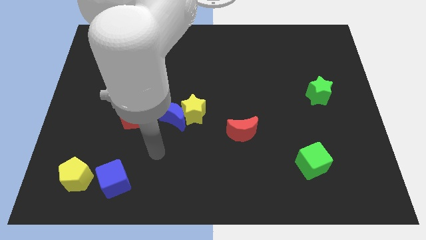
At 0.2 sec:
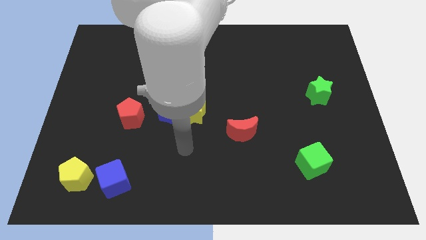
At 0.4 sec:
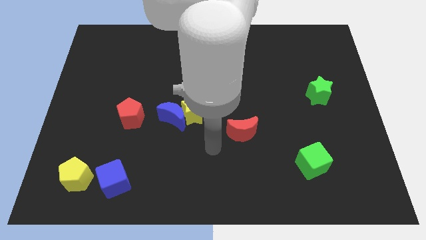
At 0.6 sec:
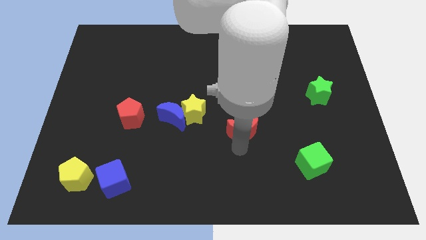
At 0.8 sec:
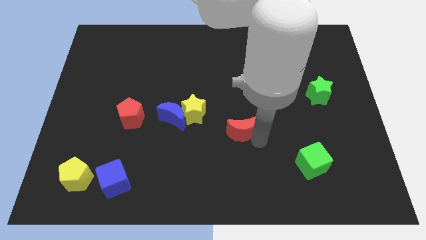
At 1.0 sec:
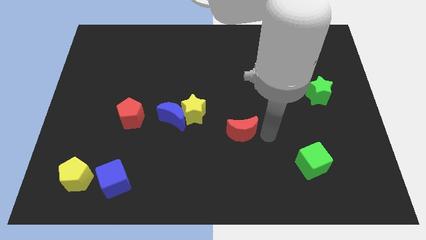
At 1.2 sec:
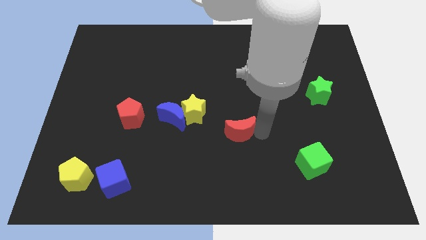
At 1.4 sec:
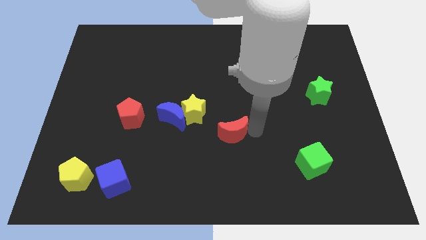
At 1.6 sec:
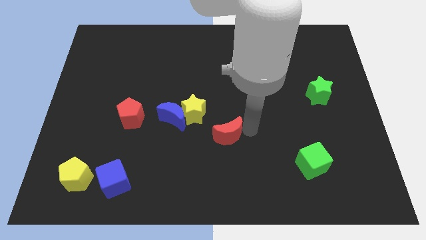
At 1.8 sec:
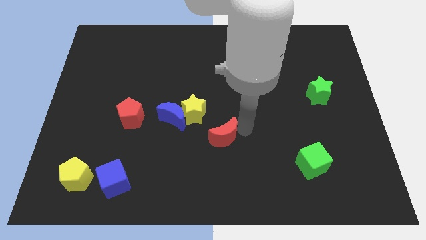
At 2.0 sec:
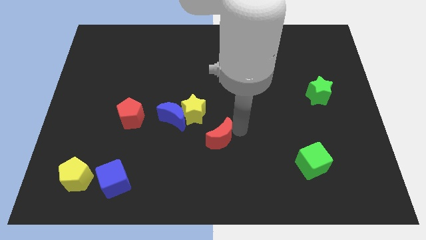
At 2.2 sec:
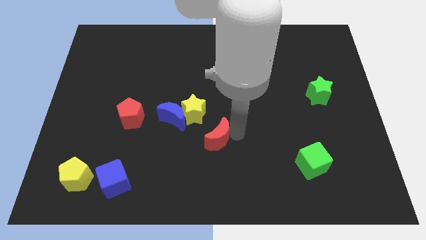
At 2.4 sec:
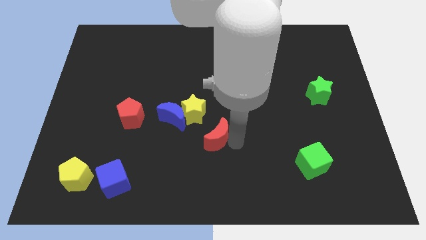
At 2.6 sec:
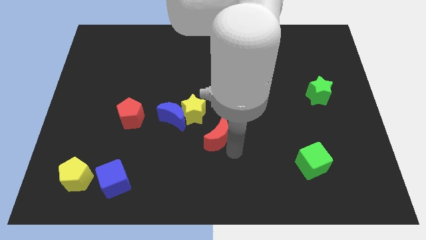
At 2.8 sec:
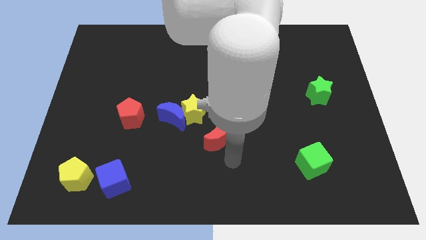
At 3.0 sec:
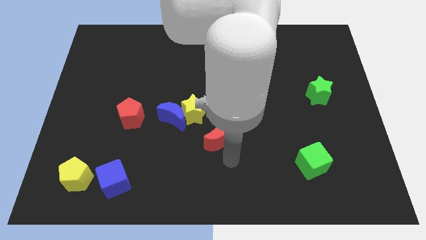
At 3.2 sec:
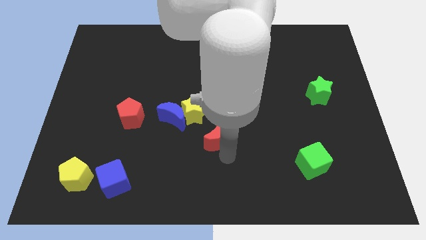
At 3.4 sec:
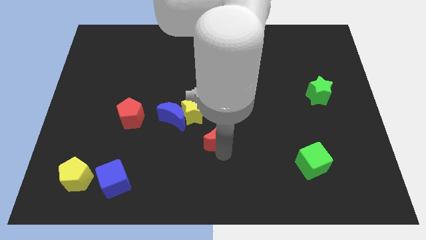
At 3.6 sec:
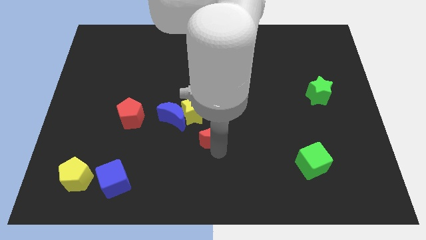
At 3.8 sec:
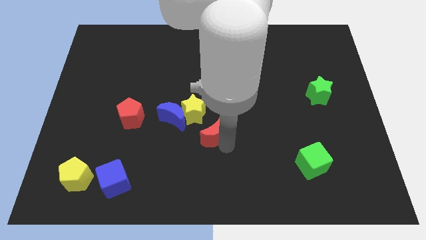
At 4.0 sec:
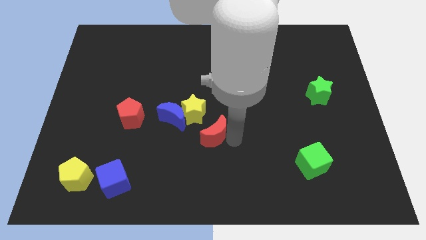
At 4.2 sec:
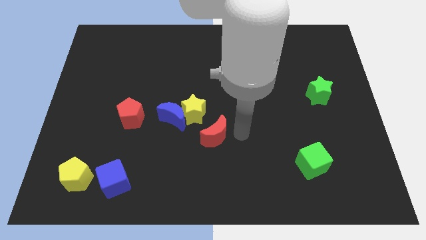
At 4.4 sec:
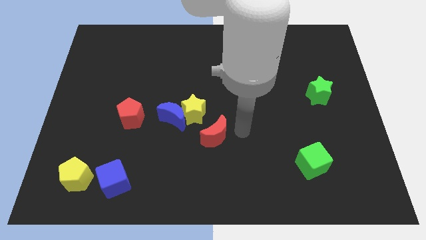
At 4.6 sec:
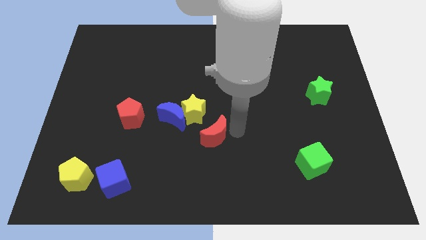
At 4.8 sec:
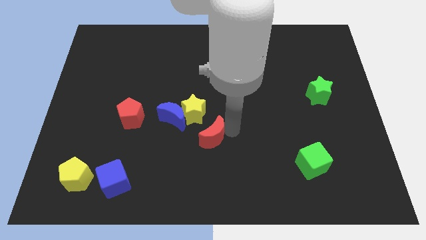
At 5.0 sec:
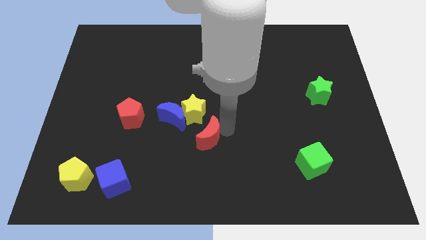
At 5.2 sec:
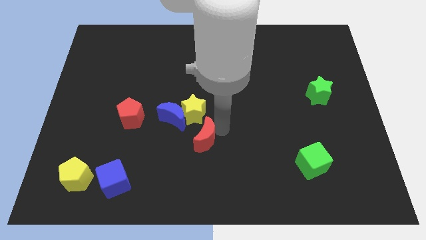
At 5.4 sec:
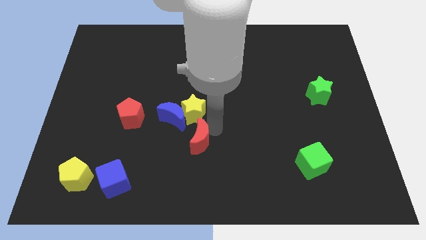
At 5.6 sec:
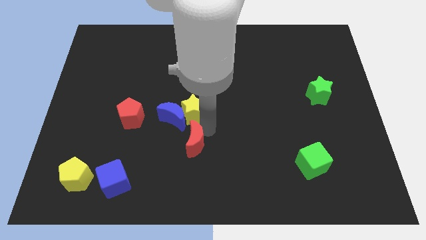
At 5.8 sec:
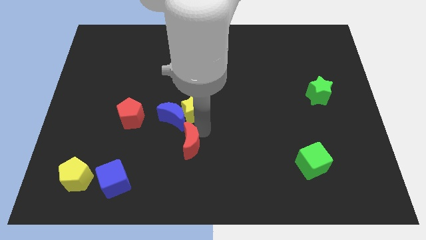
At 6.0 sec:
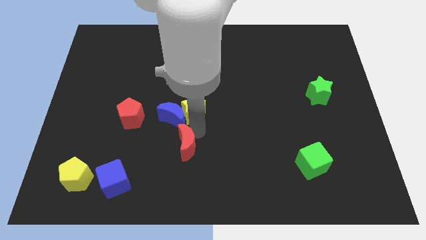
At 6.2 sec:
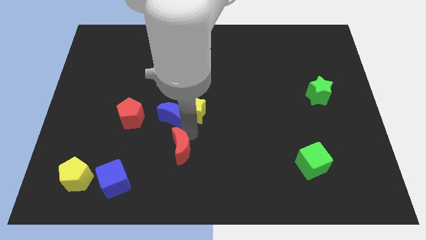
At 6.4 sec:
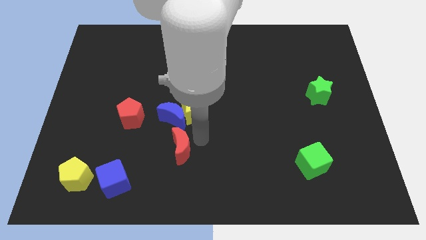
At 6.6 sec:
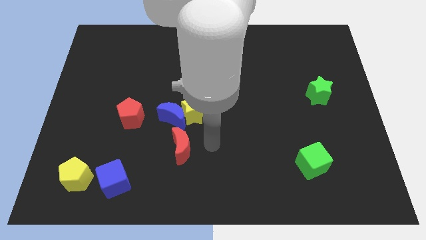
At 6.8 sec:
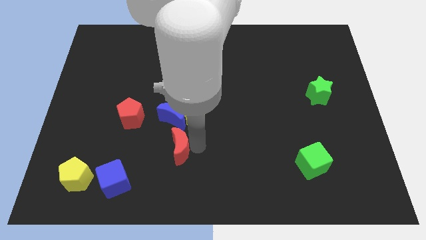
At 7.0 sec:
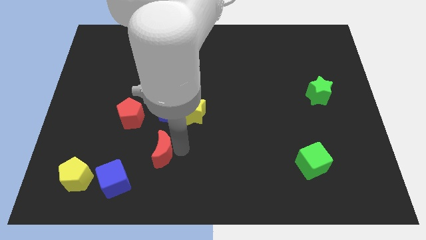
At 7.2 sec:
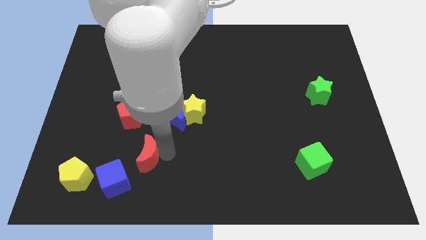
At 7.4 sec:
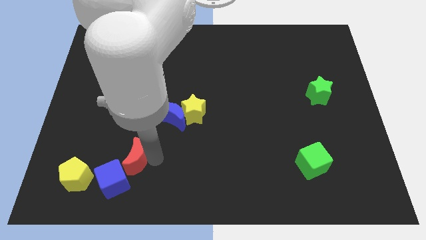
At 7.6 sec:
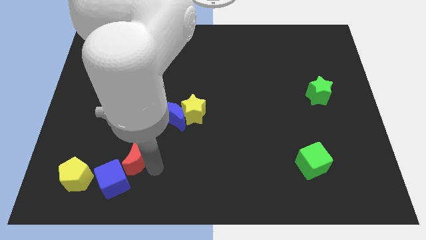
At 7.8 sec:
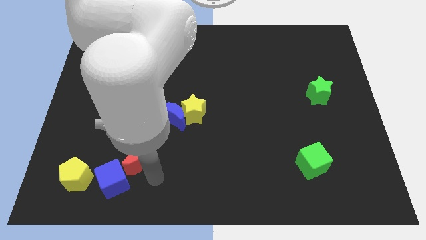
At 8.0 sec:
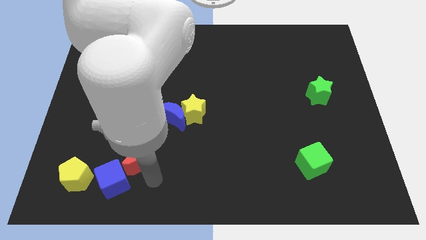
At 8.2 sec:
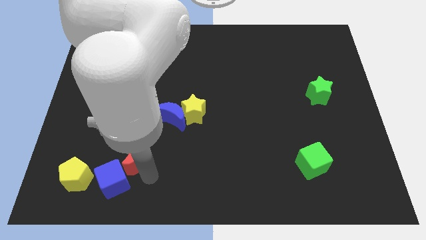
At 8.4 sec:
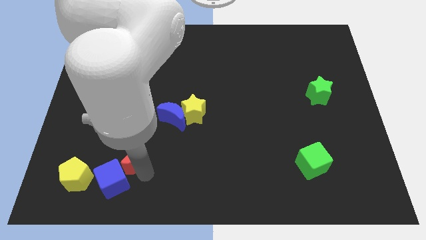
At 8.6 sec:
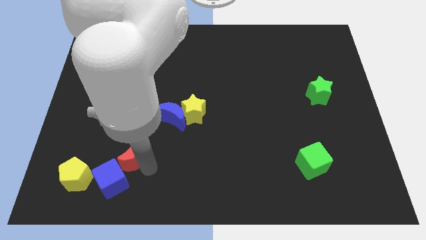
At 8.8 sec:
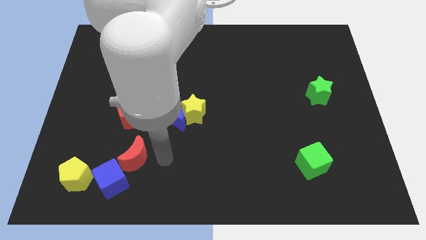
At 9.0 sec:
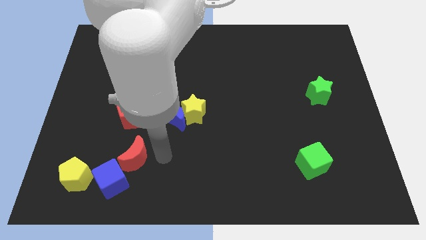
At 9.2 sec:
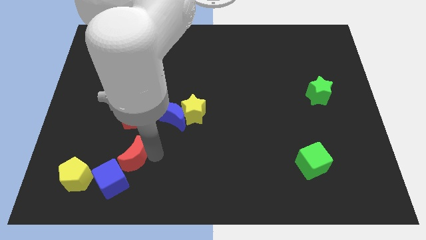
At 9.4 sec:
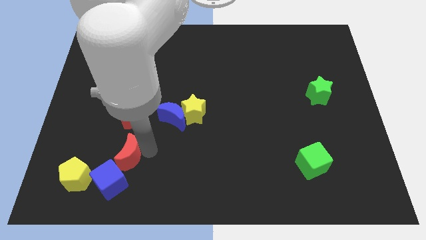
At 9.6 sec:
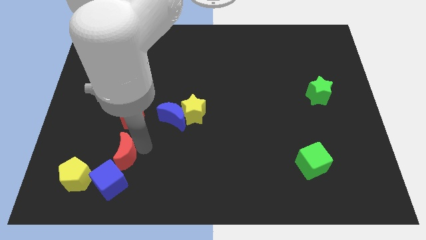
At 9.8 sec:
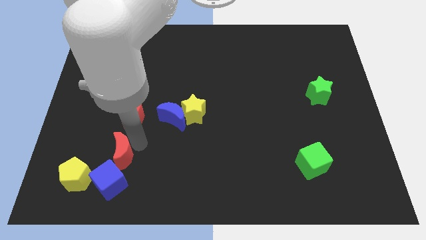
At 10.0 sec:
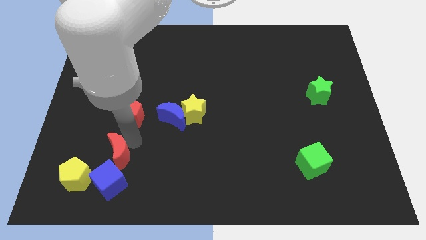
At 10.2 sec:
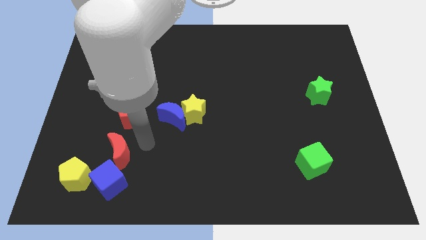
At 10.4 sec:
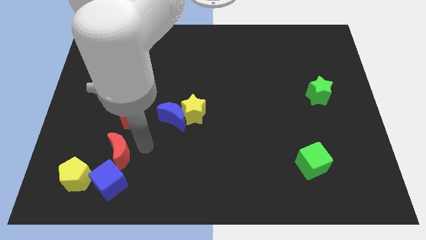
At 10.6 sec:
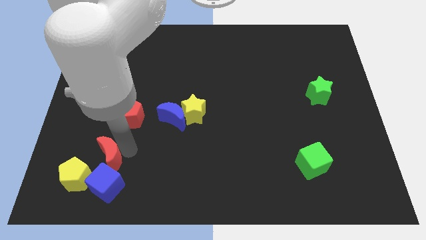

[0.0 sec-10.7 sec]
push the red moon diagonally up and to the left of the blue cube

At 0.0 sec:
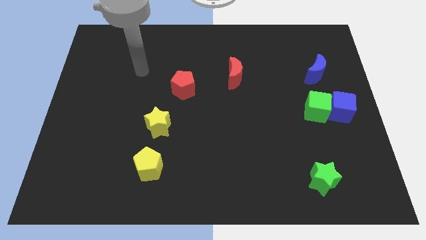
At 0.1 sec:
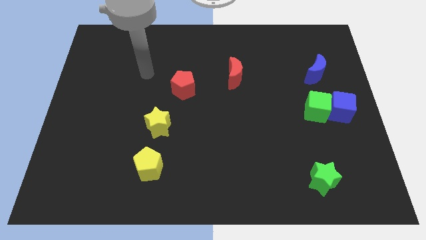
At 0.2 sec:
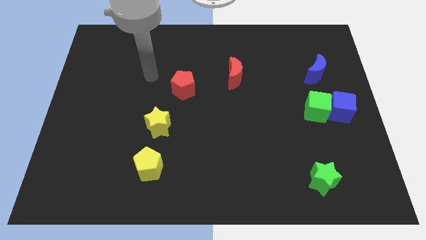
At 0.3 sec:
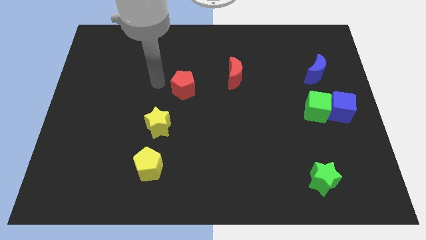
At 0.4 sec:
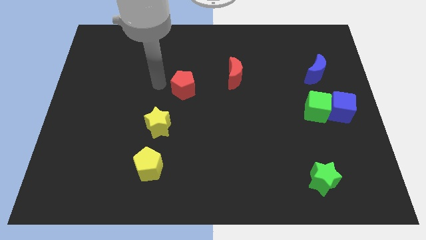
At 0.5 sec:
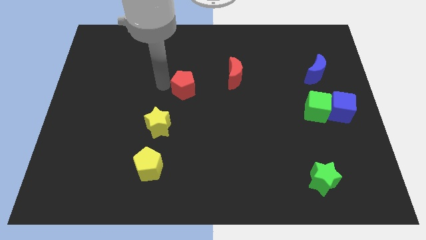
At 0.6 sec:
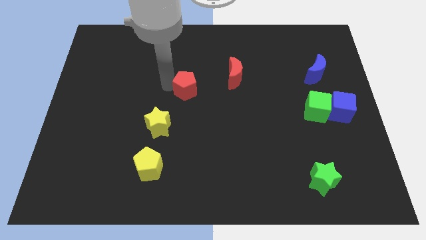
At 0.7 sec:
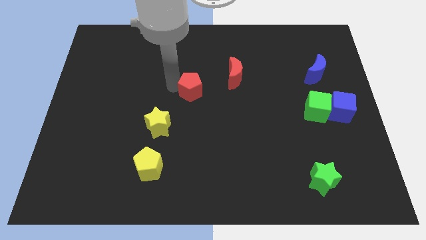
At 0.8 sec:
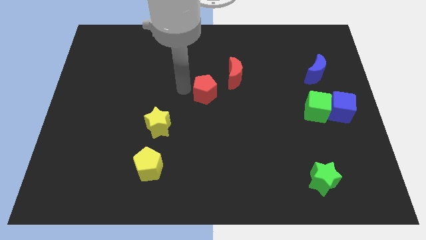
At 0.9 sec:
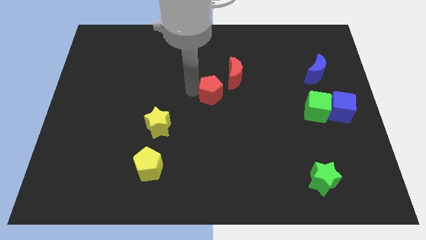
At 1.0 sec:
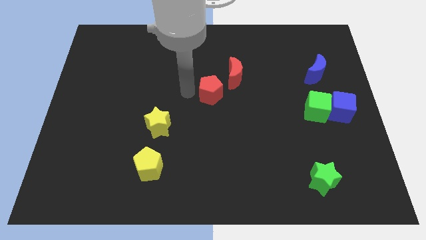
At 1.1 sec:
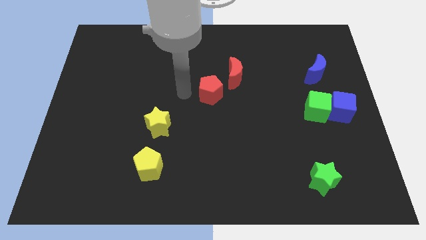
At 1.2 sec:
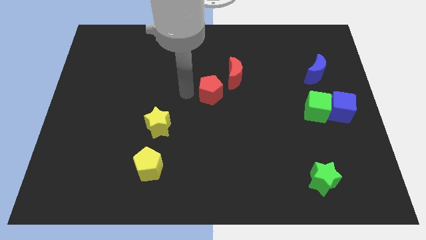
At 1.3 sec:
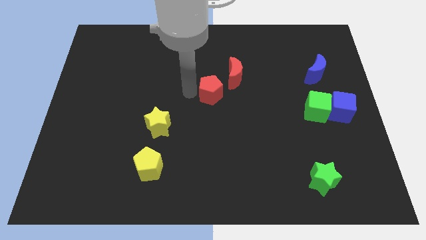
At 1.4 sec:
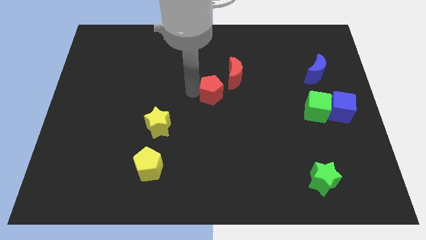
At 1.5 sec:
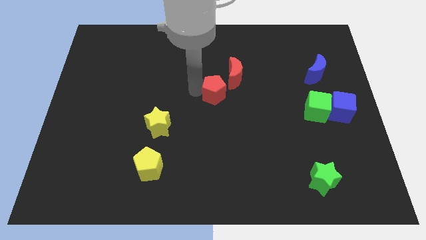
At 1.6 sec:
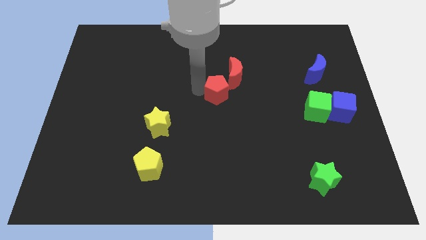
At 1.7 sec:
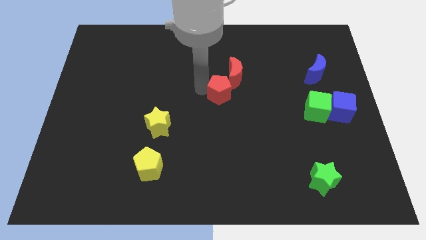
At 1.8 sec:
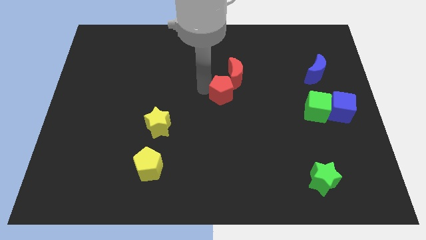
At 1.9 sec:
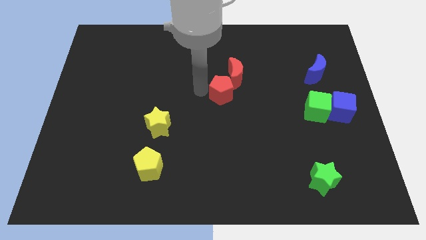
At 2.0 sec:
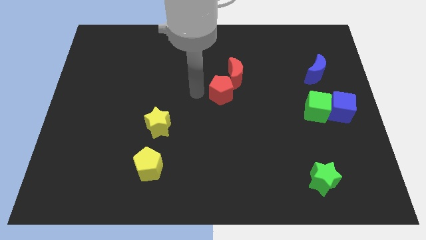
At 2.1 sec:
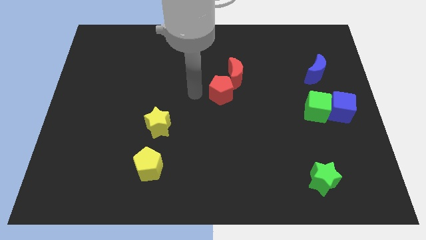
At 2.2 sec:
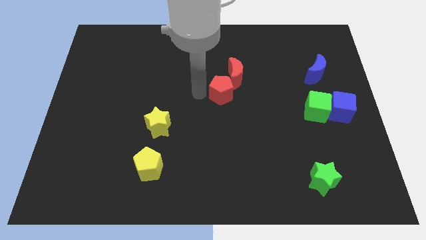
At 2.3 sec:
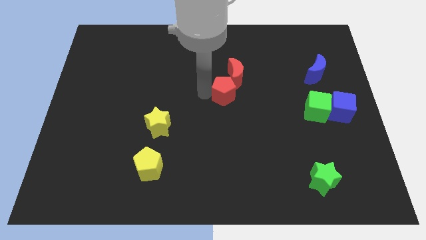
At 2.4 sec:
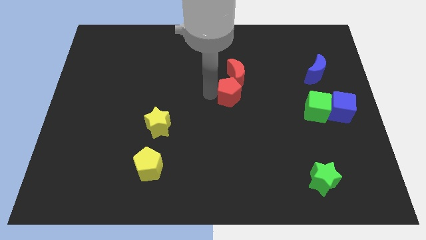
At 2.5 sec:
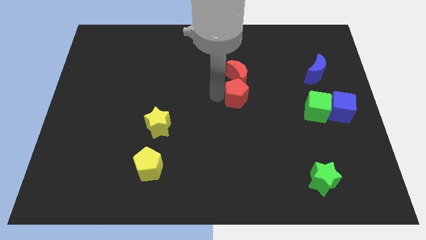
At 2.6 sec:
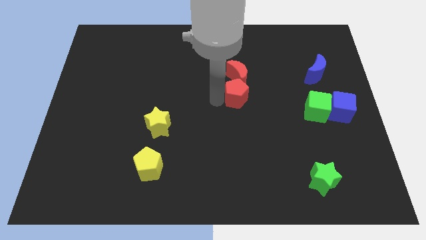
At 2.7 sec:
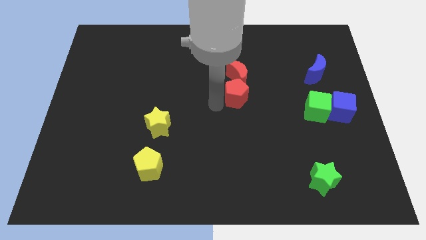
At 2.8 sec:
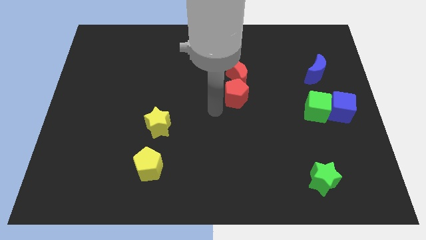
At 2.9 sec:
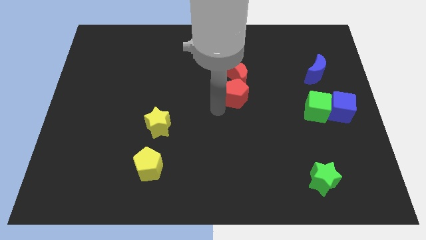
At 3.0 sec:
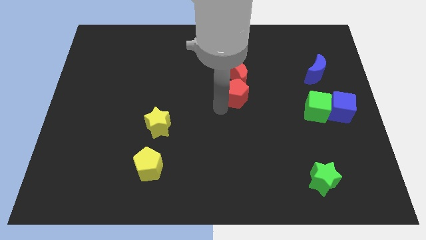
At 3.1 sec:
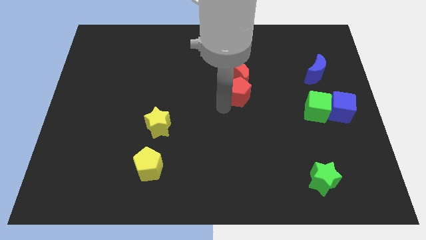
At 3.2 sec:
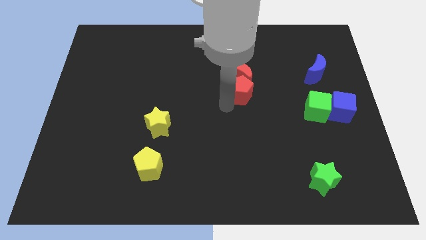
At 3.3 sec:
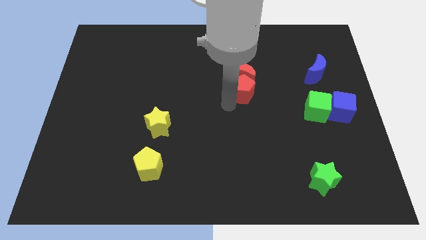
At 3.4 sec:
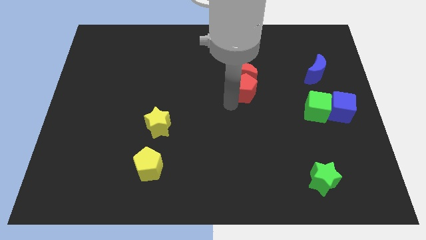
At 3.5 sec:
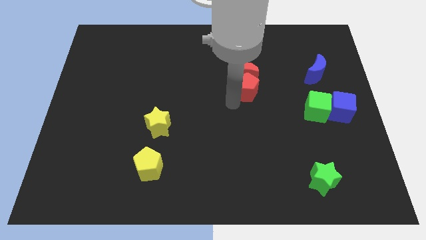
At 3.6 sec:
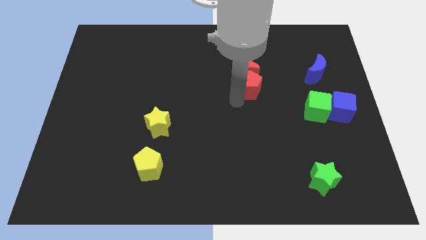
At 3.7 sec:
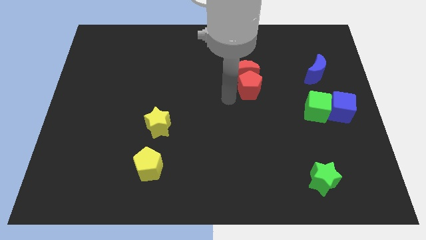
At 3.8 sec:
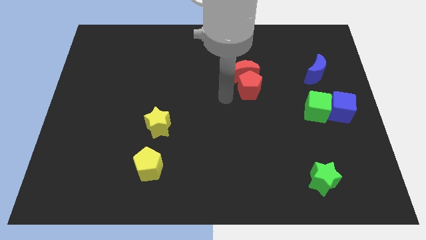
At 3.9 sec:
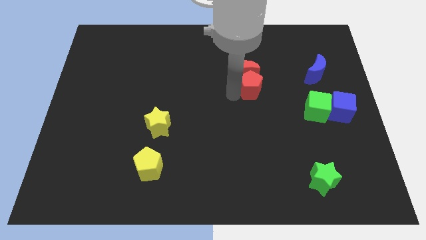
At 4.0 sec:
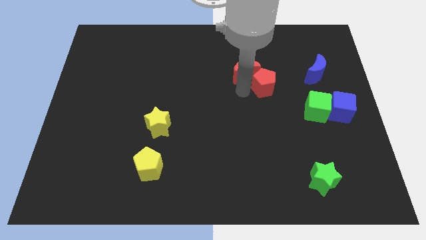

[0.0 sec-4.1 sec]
push the red pentagon to the right side of the red moon
